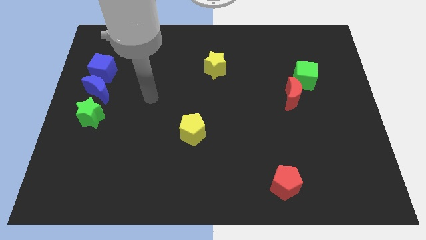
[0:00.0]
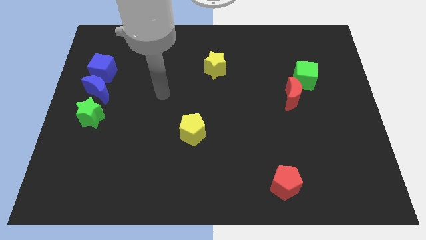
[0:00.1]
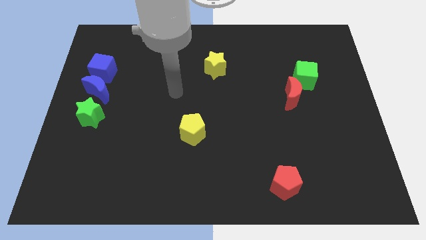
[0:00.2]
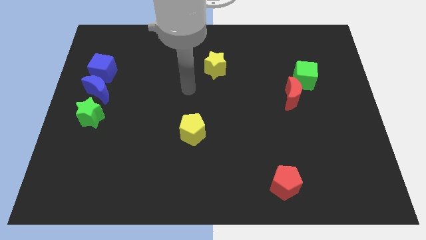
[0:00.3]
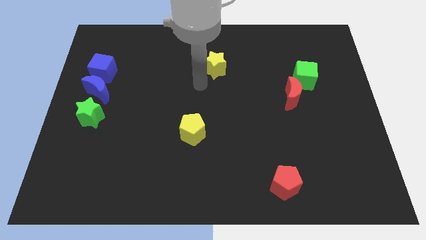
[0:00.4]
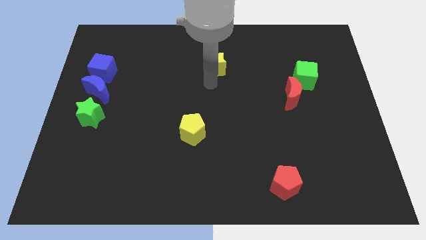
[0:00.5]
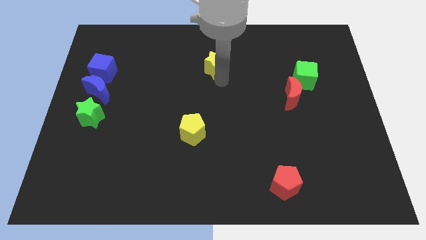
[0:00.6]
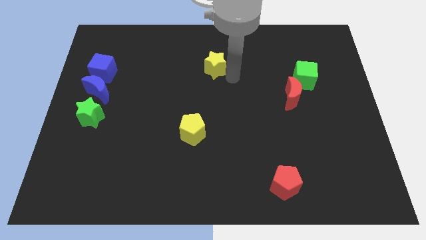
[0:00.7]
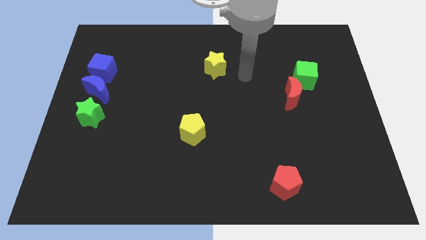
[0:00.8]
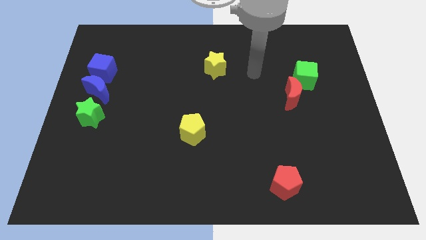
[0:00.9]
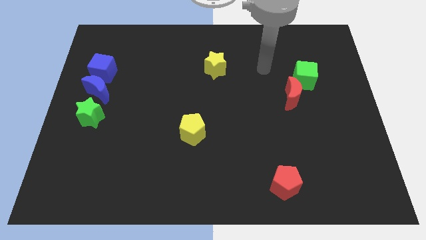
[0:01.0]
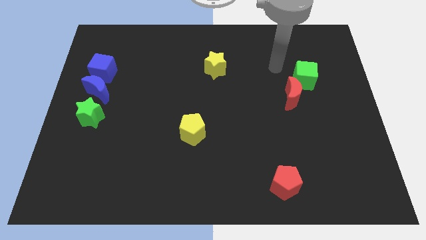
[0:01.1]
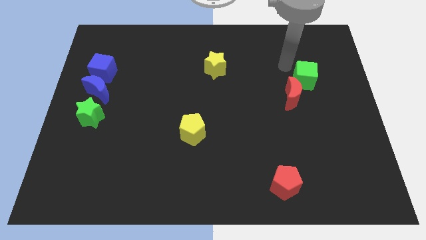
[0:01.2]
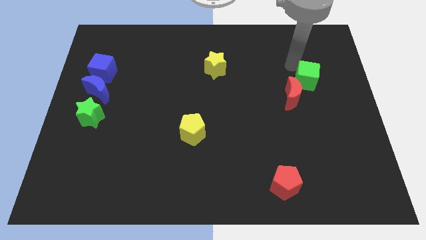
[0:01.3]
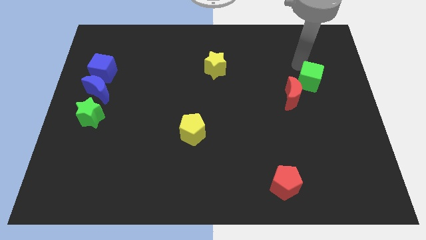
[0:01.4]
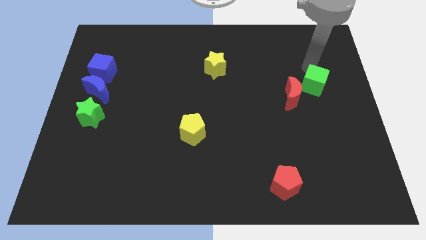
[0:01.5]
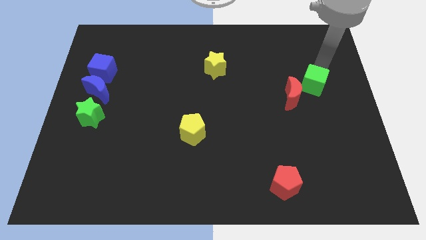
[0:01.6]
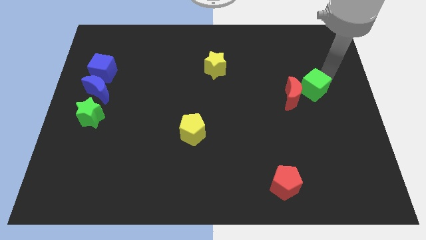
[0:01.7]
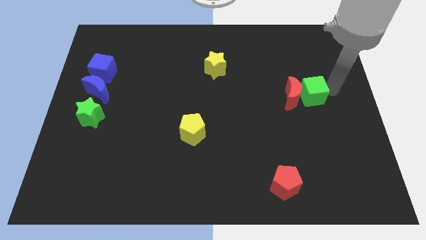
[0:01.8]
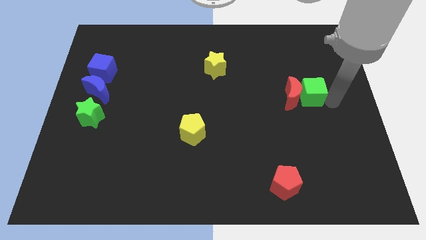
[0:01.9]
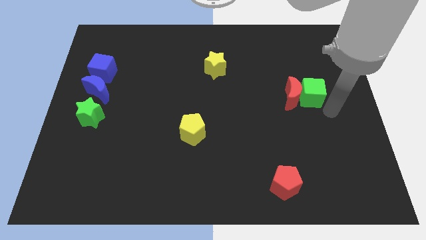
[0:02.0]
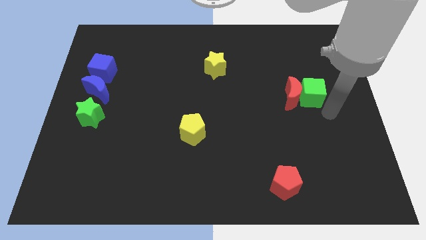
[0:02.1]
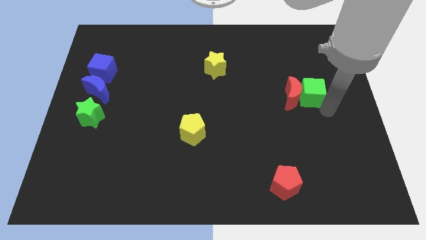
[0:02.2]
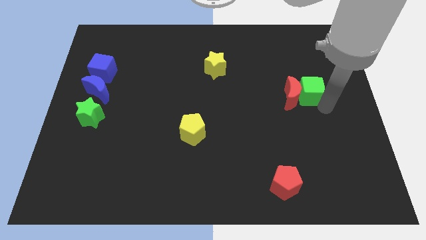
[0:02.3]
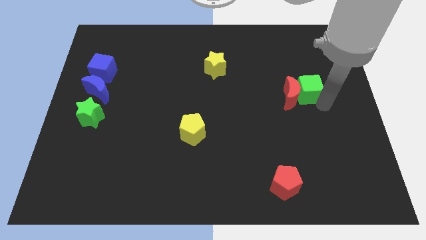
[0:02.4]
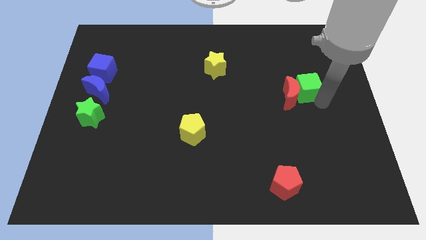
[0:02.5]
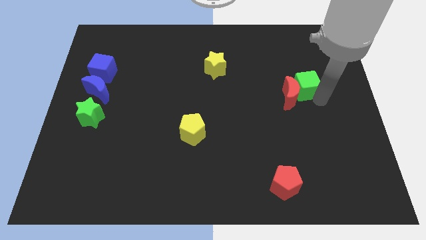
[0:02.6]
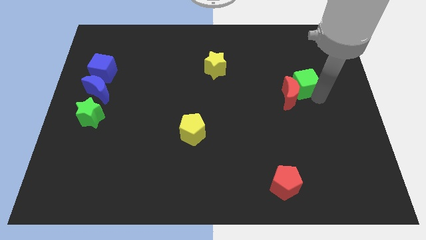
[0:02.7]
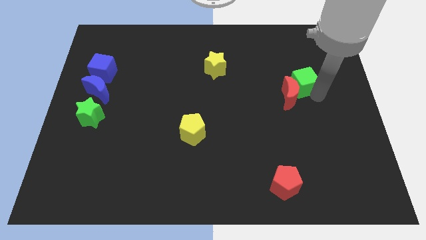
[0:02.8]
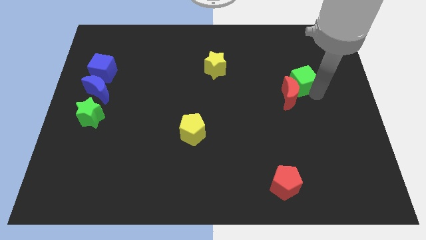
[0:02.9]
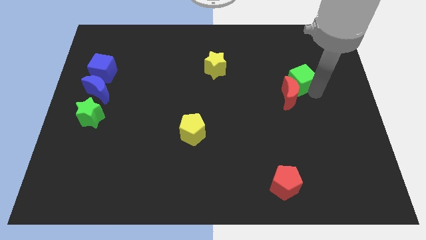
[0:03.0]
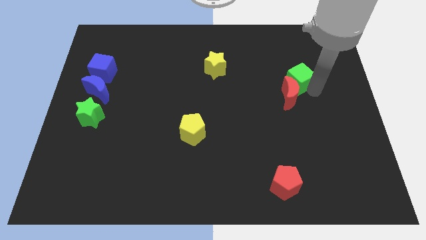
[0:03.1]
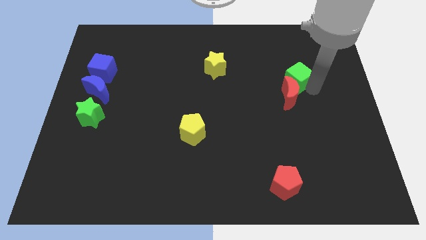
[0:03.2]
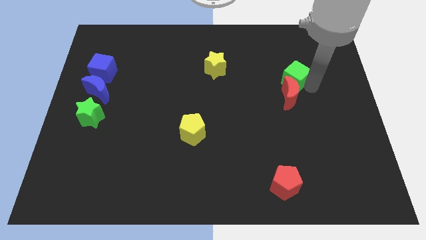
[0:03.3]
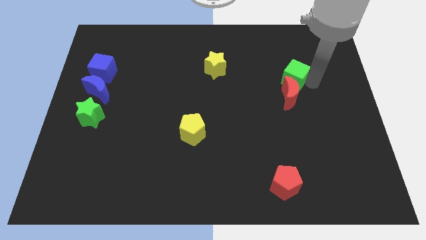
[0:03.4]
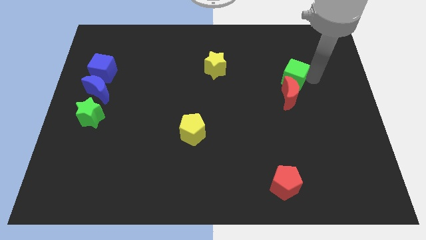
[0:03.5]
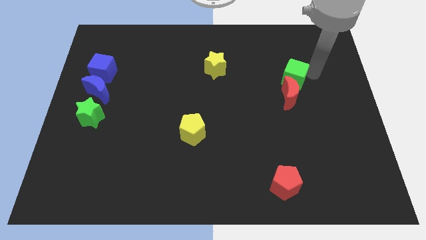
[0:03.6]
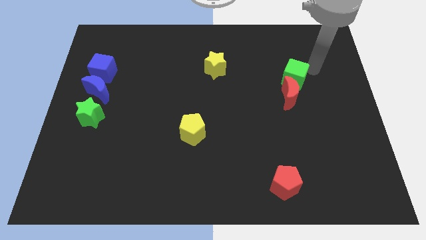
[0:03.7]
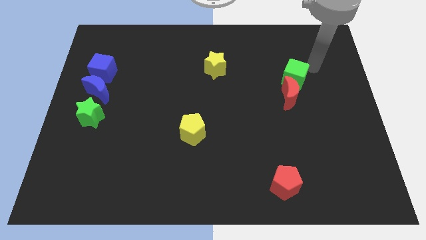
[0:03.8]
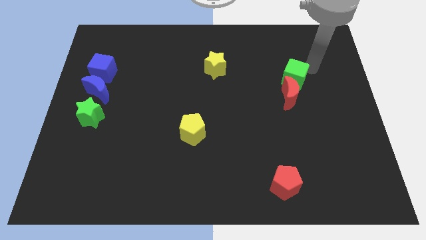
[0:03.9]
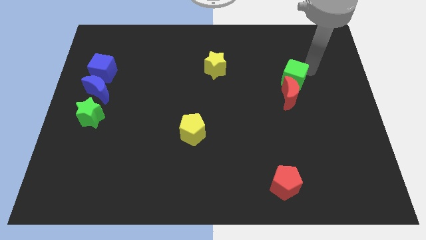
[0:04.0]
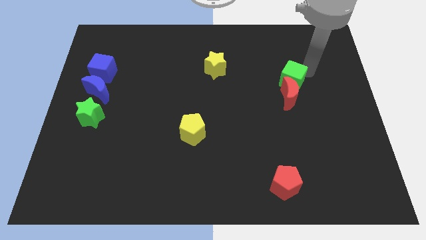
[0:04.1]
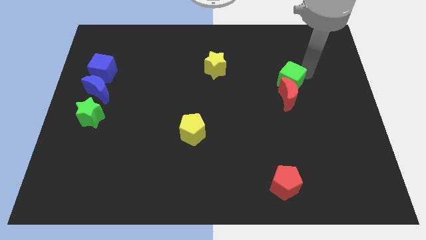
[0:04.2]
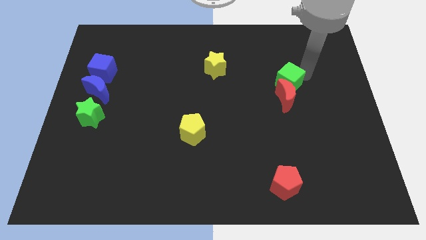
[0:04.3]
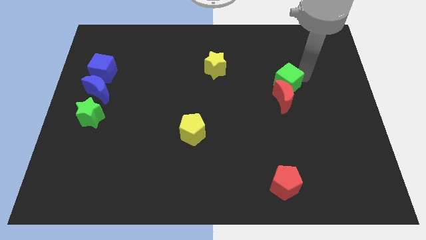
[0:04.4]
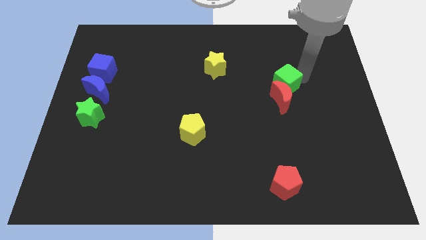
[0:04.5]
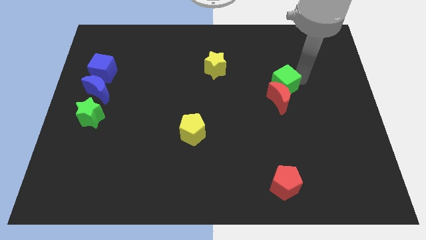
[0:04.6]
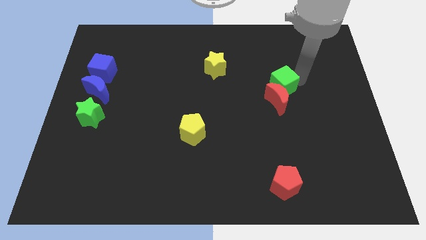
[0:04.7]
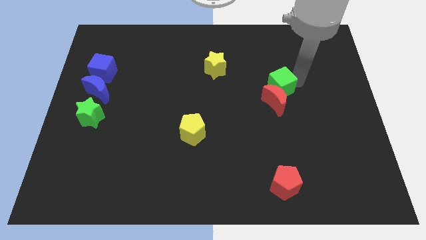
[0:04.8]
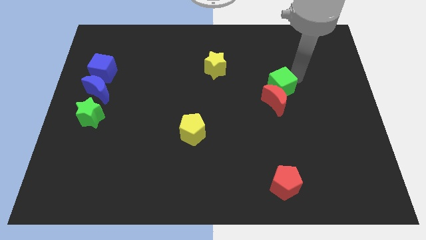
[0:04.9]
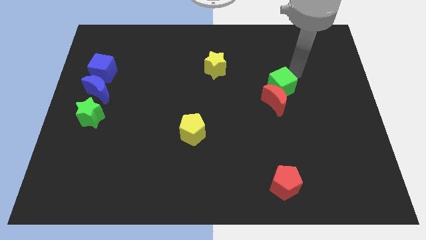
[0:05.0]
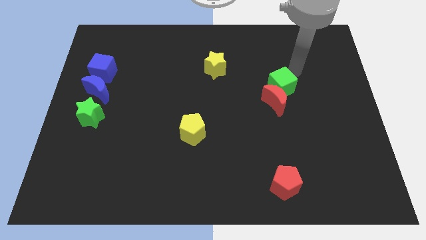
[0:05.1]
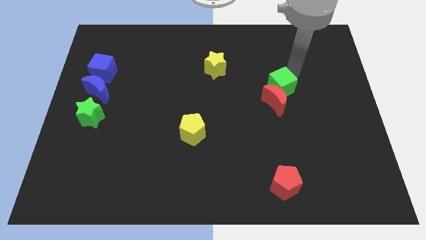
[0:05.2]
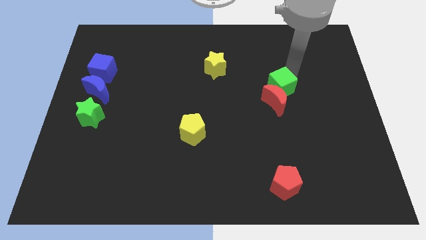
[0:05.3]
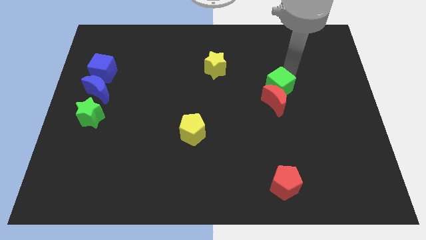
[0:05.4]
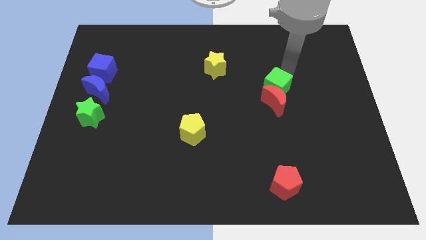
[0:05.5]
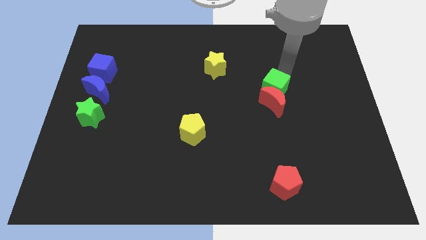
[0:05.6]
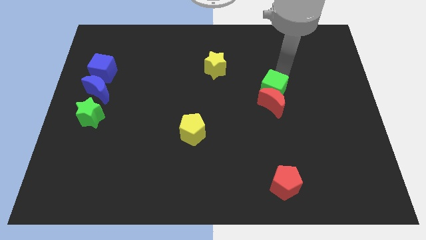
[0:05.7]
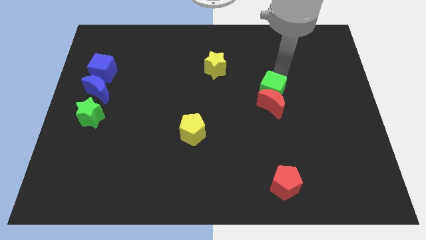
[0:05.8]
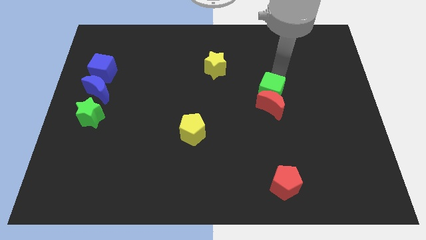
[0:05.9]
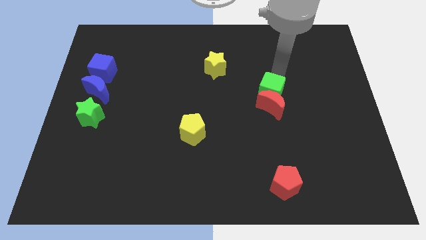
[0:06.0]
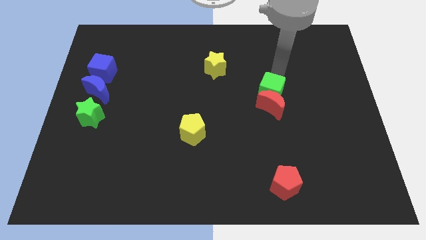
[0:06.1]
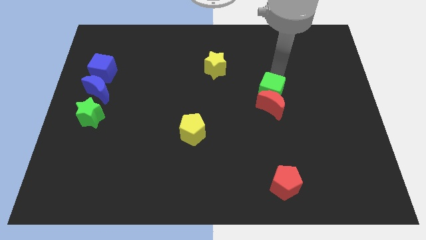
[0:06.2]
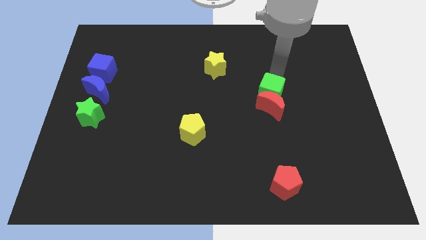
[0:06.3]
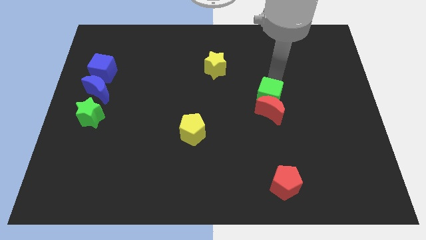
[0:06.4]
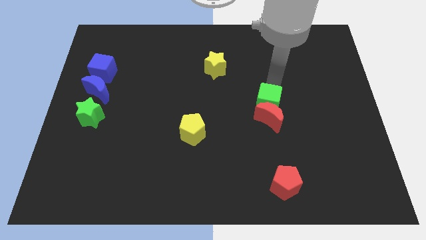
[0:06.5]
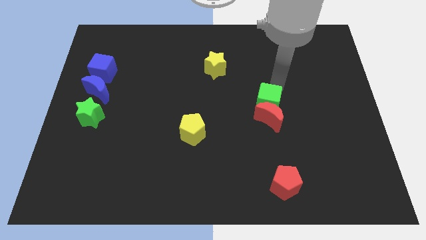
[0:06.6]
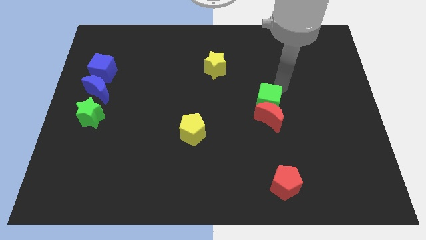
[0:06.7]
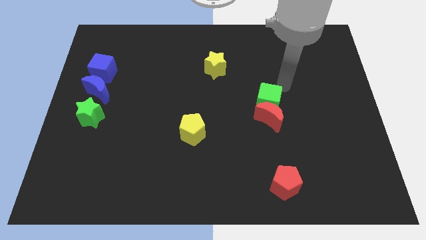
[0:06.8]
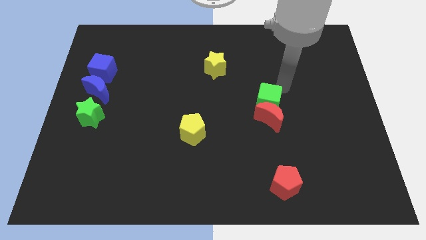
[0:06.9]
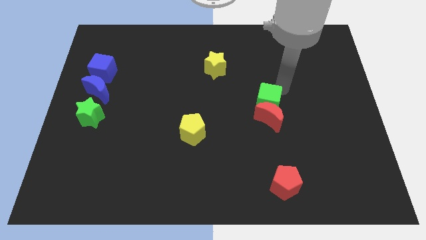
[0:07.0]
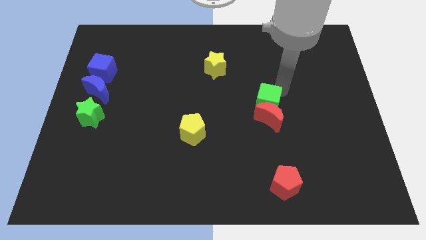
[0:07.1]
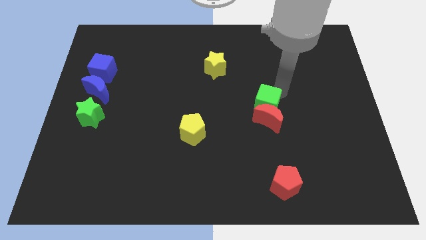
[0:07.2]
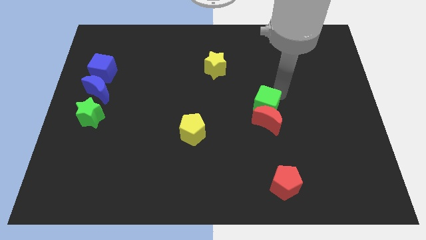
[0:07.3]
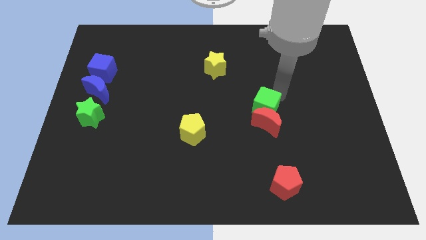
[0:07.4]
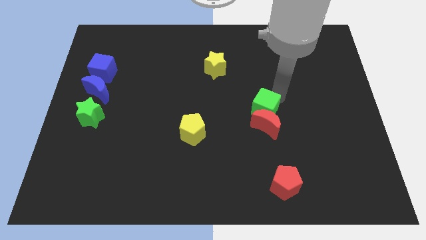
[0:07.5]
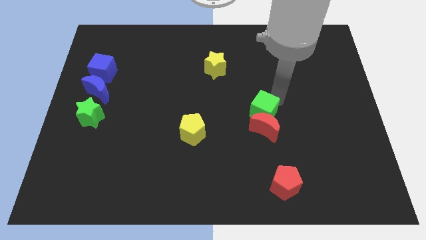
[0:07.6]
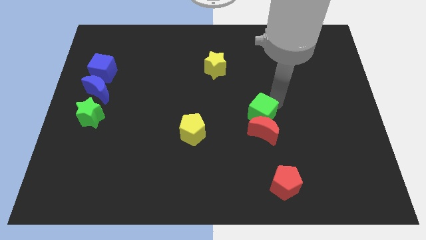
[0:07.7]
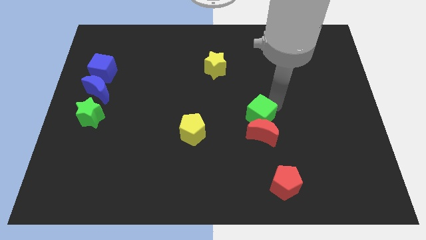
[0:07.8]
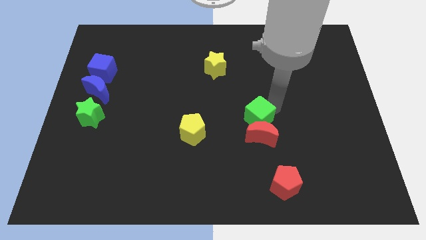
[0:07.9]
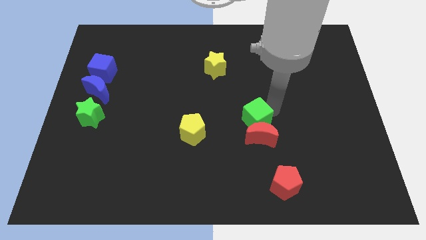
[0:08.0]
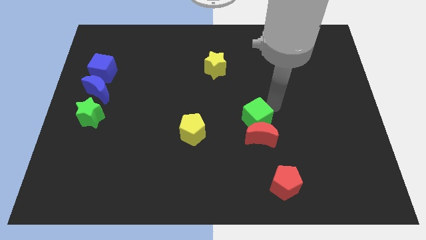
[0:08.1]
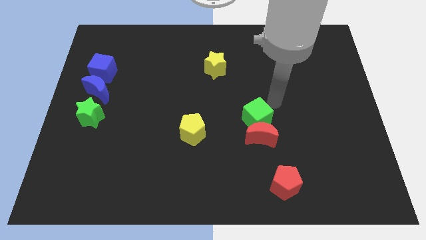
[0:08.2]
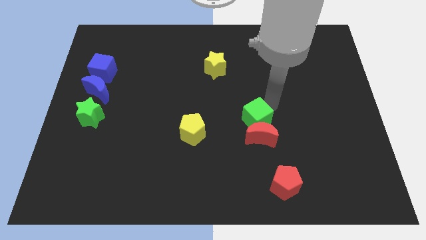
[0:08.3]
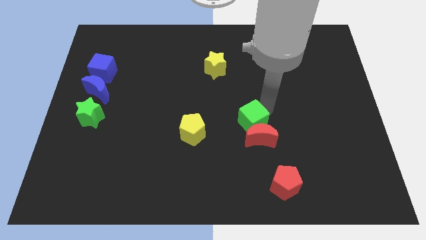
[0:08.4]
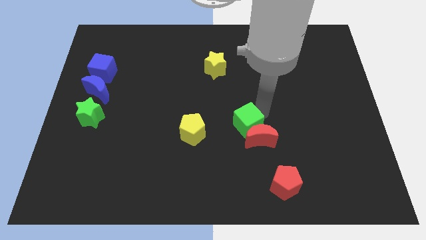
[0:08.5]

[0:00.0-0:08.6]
push the green cube downwards and then to the left
